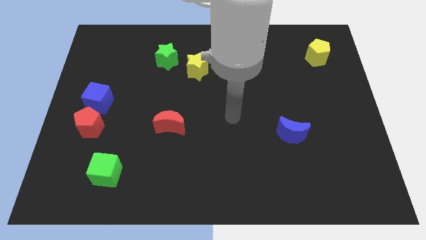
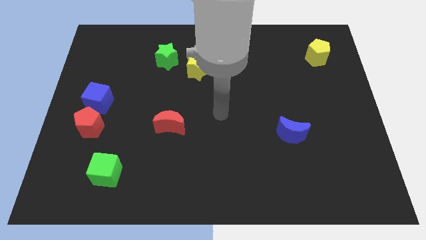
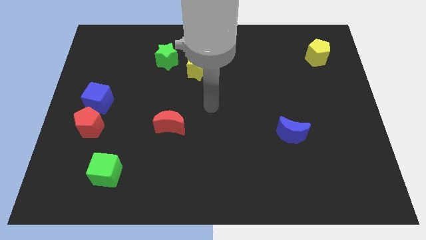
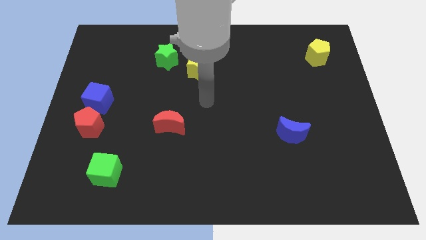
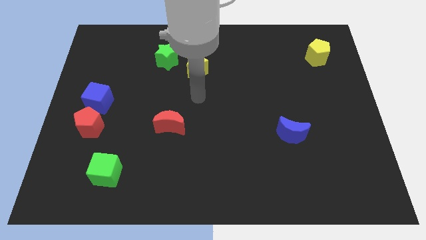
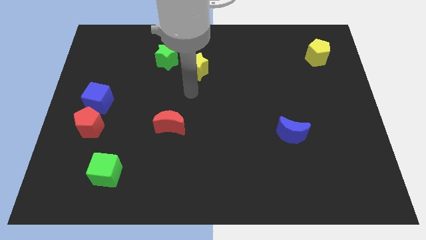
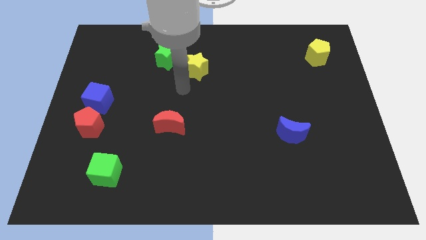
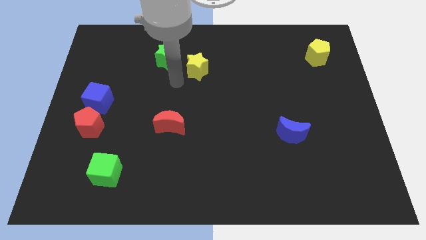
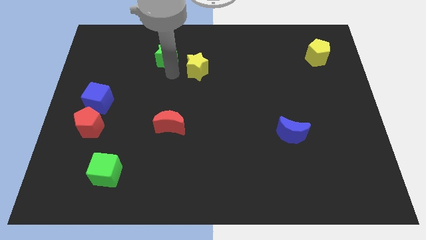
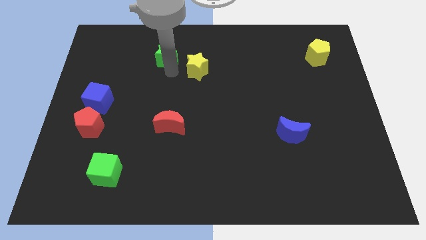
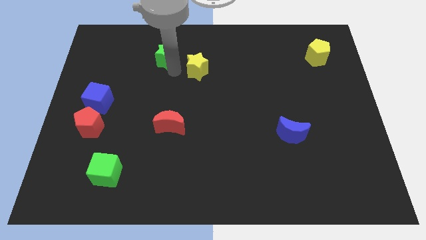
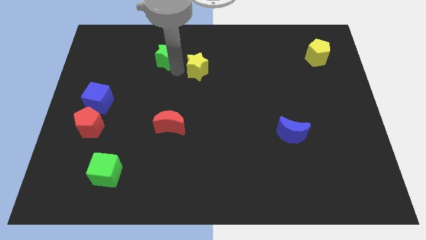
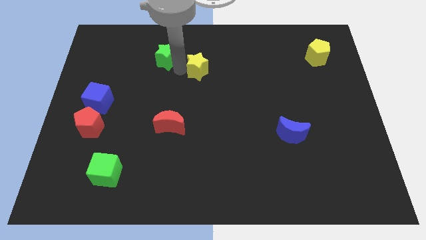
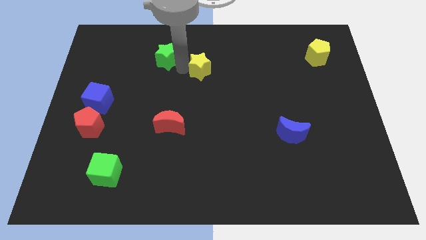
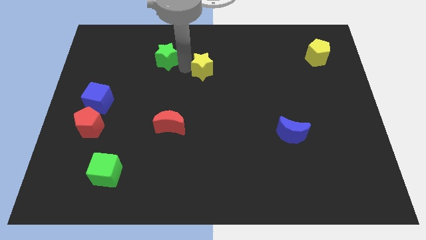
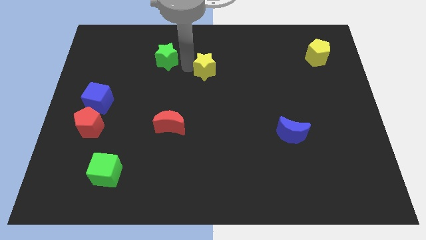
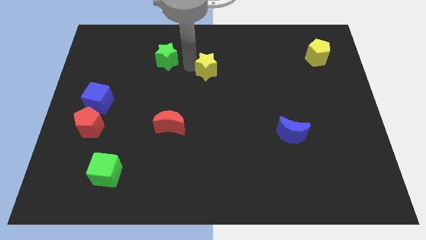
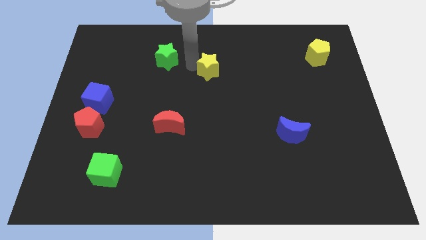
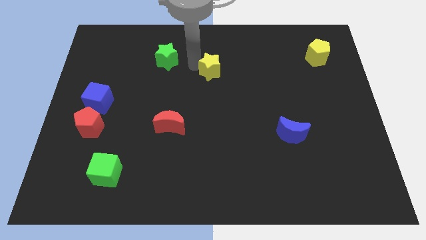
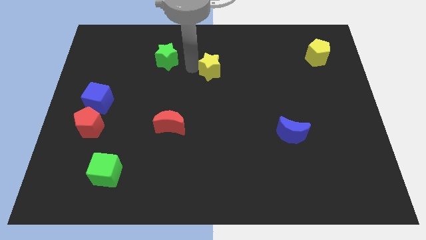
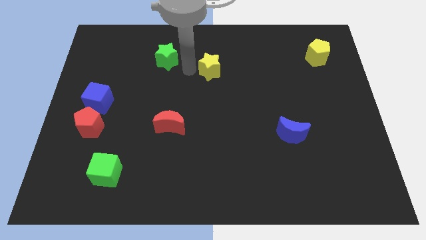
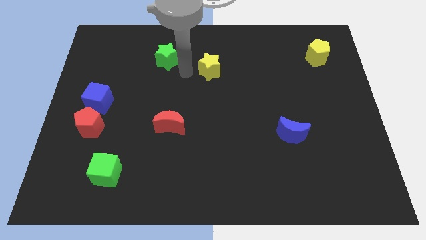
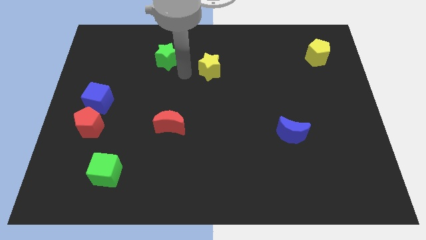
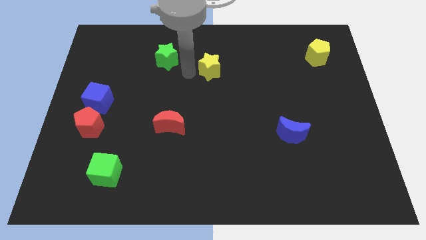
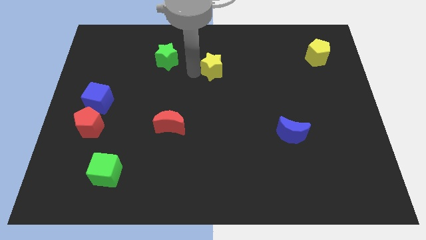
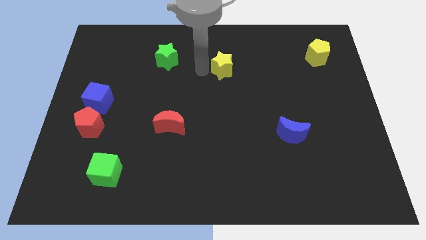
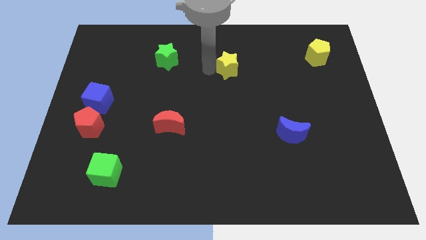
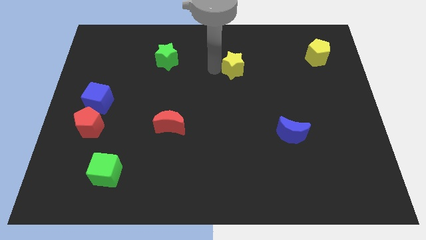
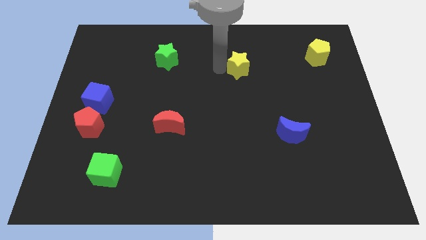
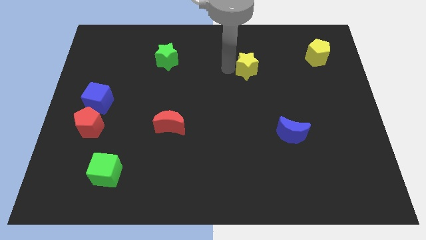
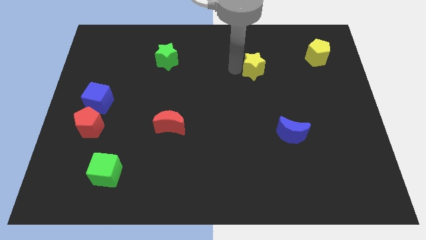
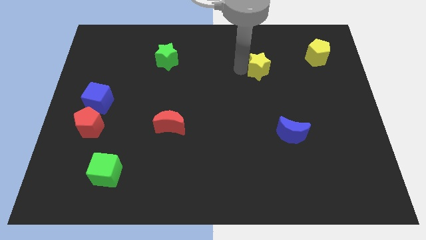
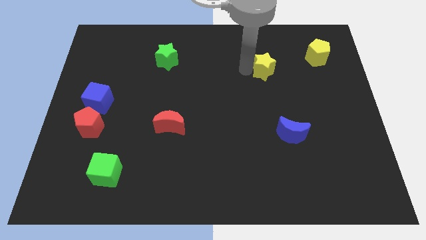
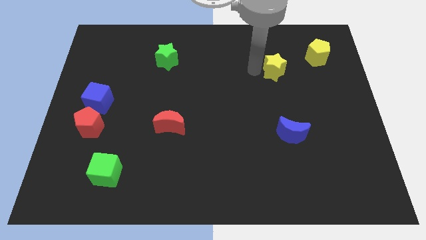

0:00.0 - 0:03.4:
move the yellow star to the right

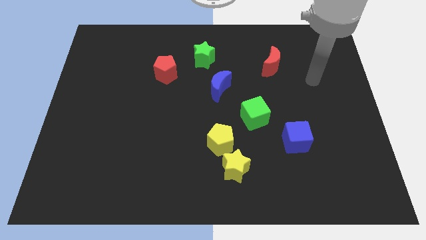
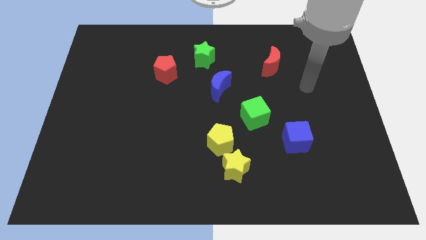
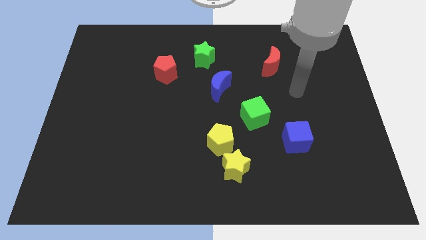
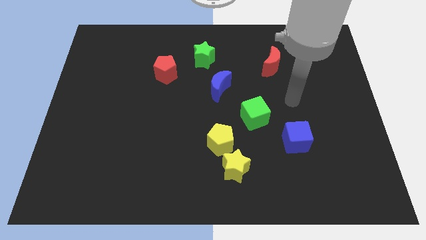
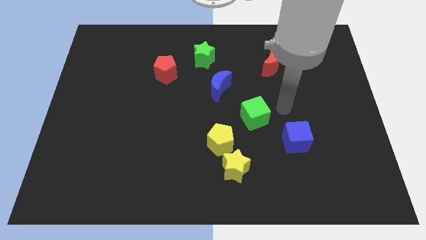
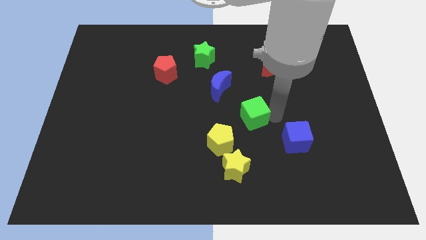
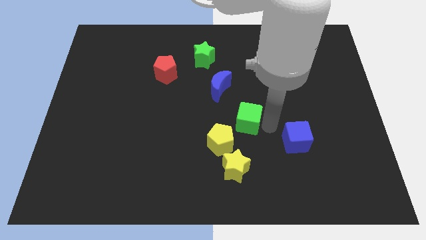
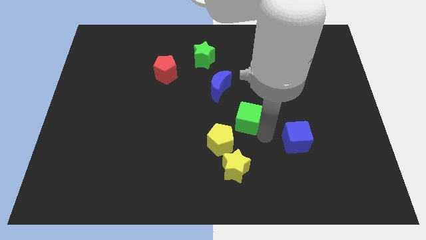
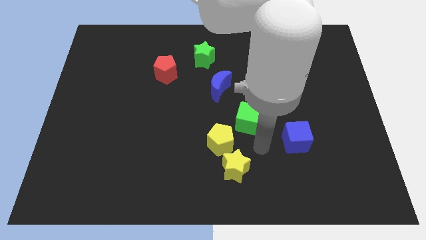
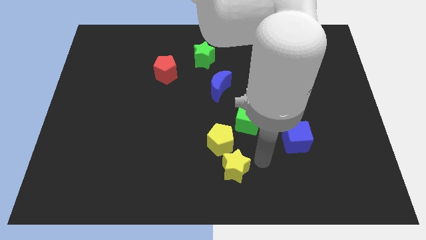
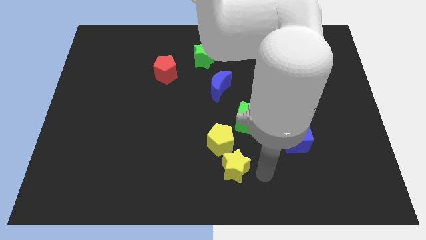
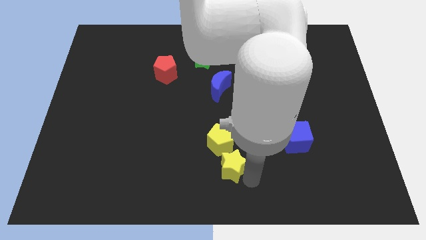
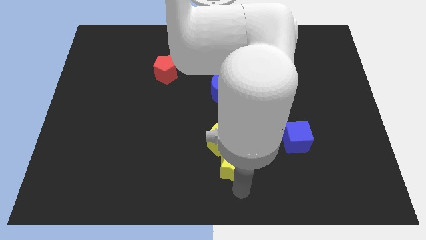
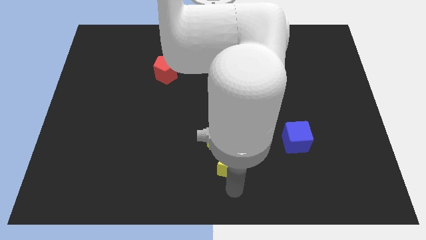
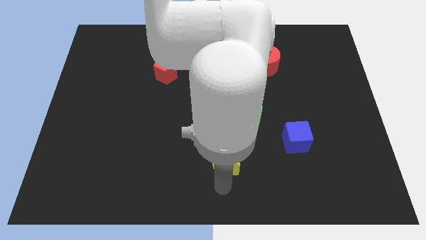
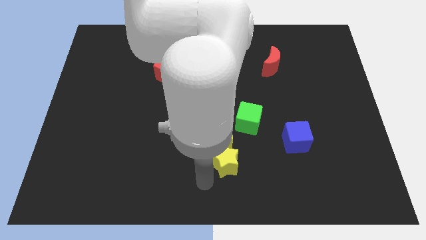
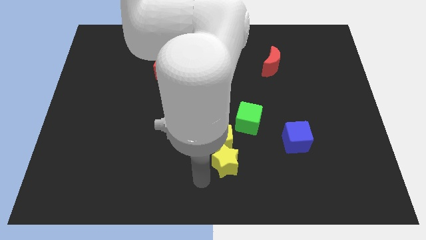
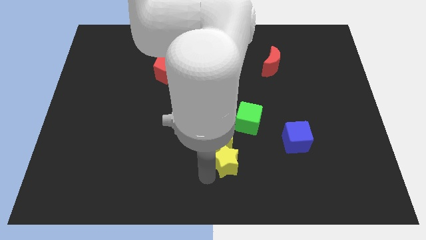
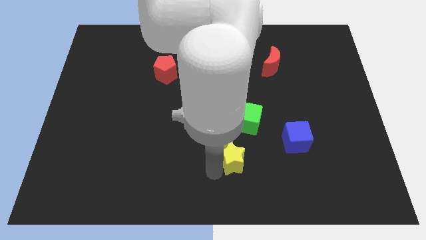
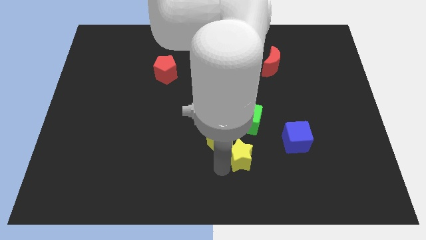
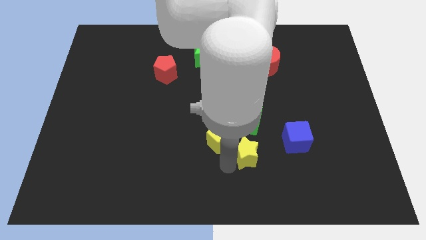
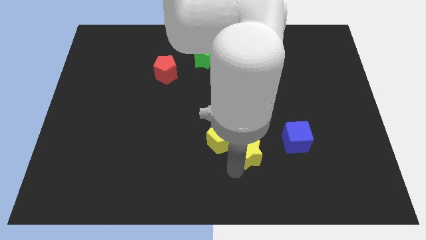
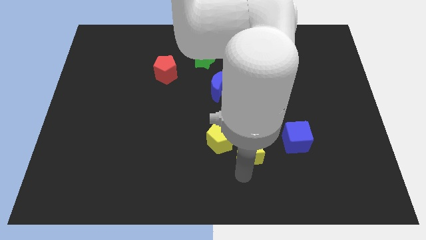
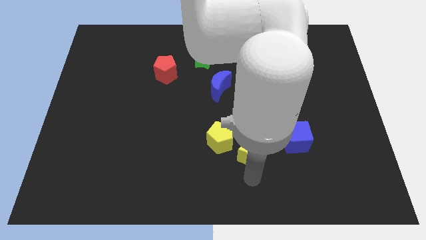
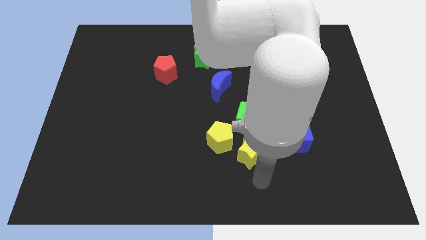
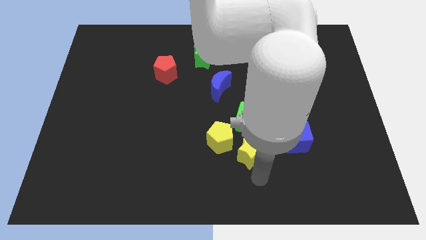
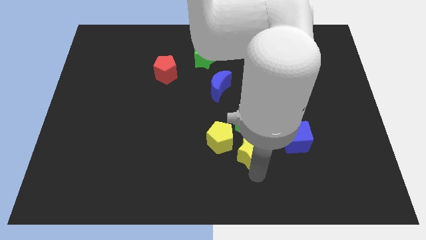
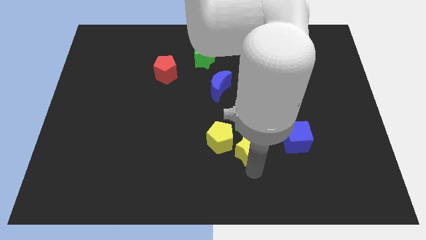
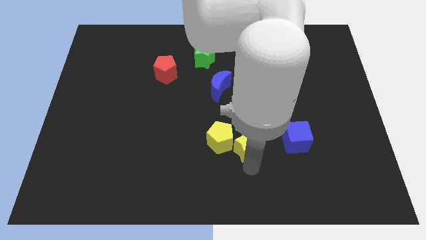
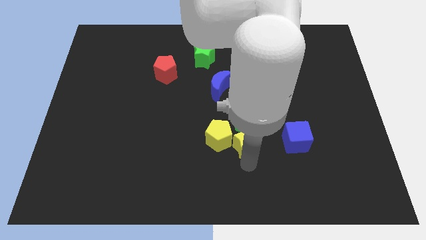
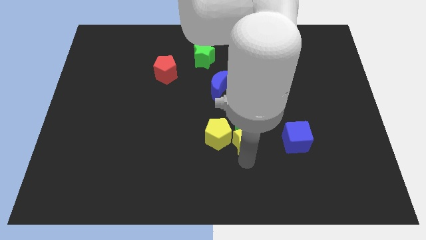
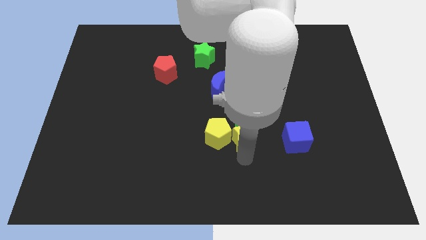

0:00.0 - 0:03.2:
slightly move the yellow star upwards

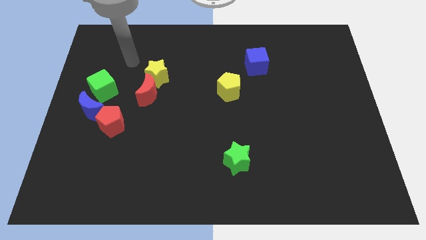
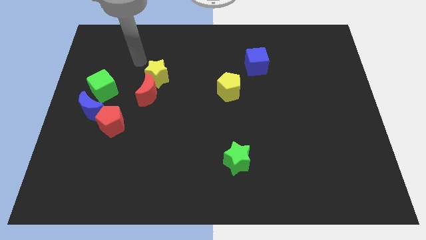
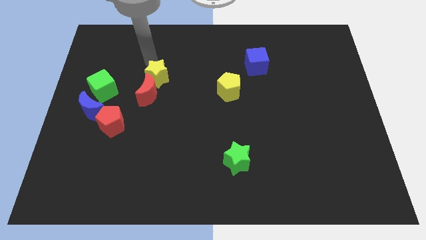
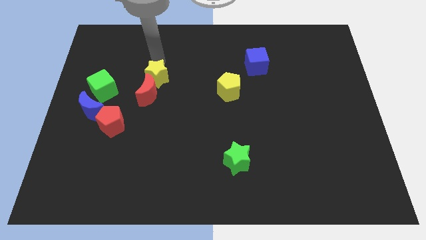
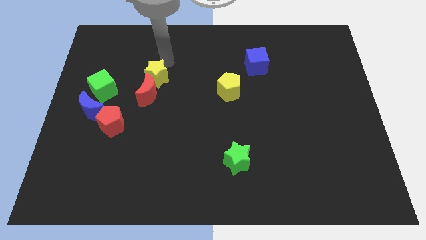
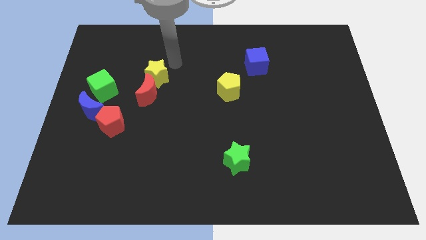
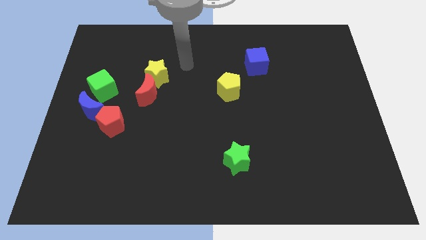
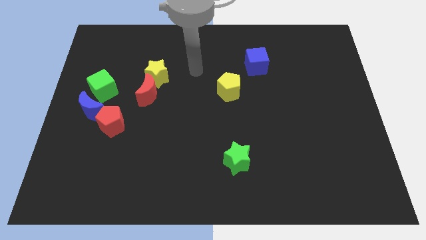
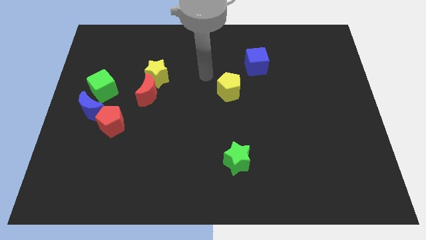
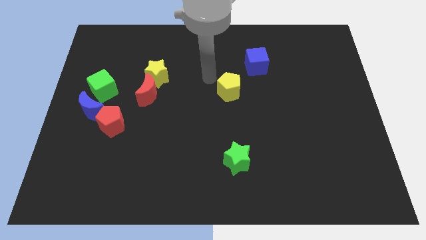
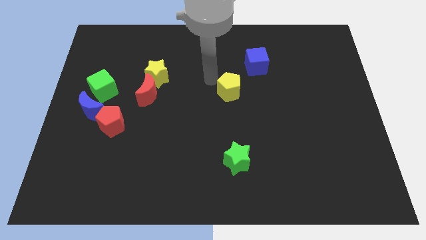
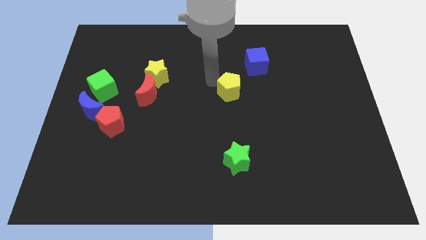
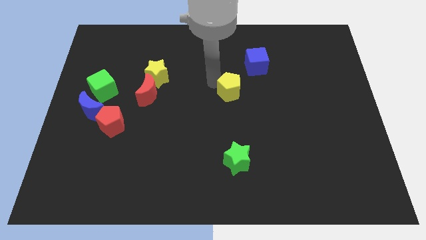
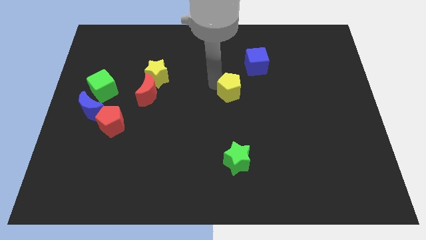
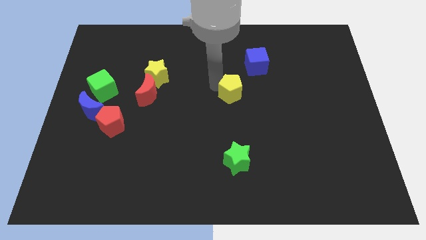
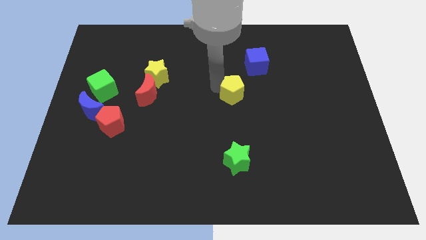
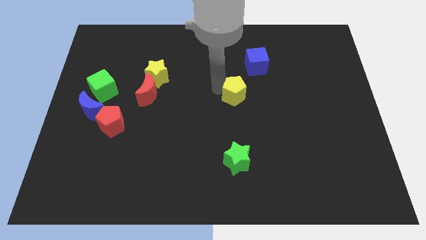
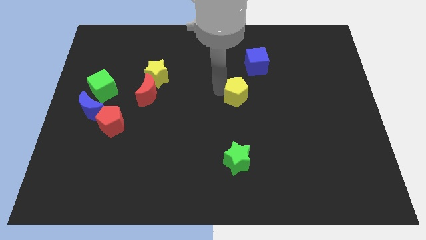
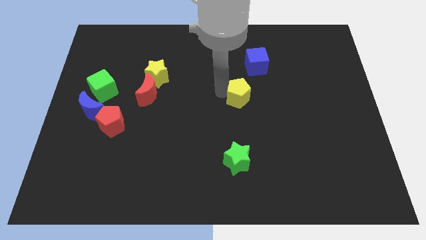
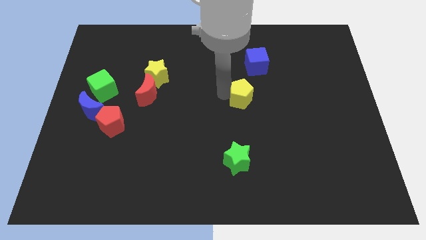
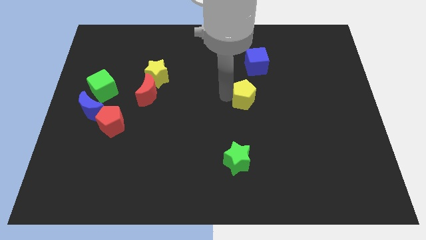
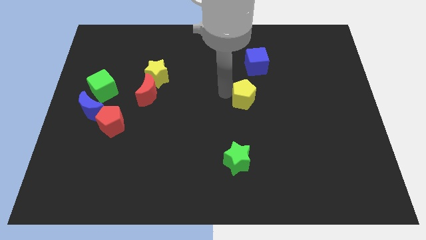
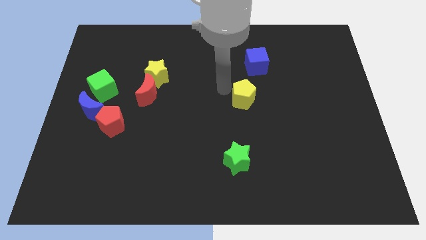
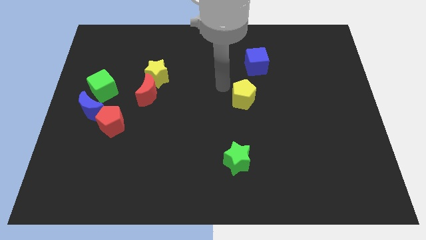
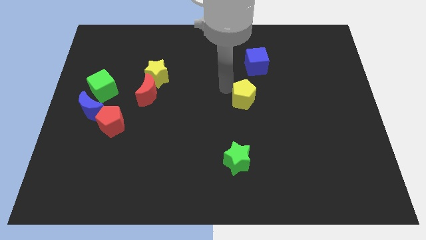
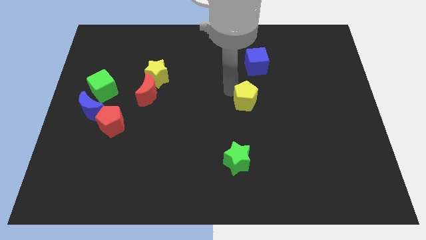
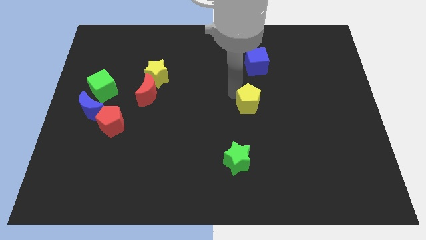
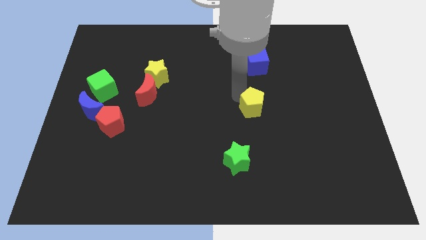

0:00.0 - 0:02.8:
move the yellow pentagon diagonally down and to the right a bit
